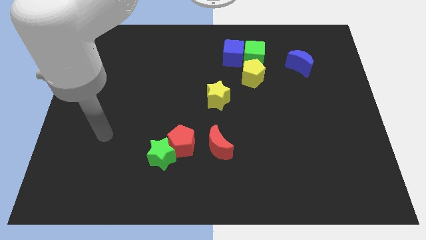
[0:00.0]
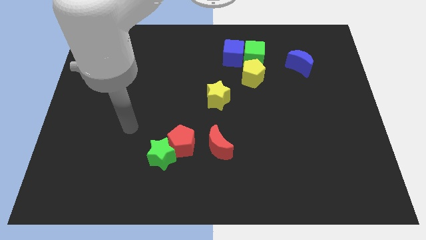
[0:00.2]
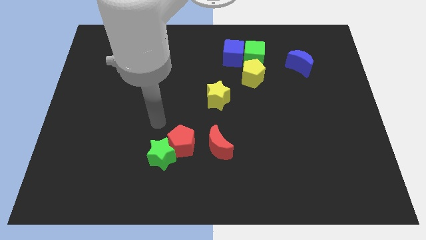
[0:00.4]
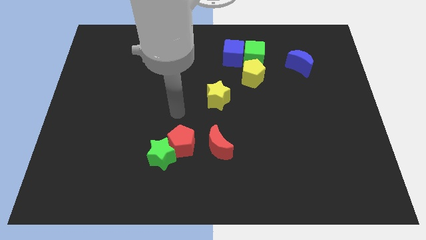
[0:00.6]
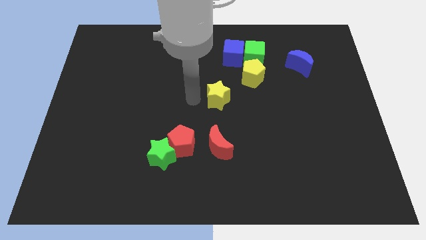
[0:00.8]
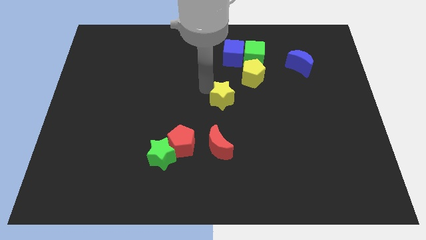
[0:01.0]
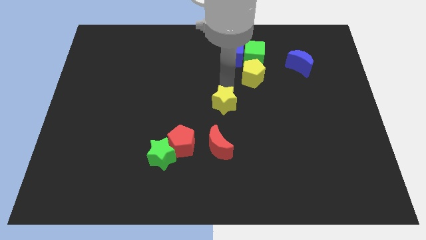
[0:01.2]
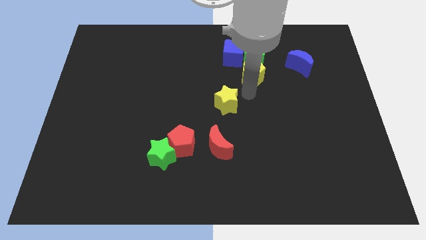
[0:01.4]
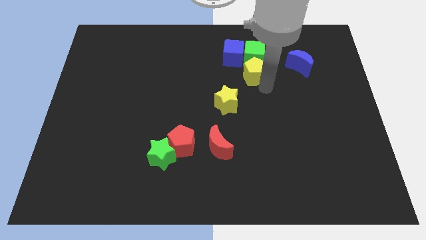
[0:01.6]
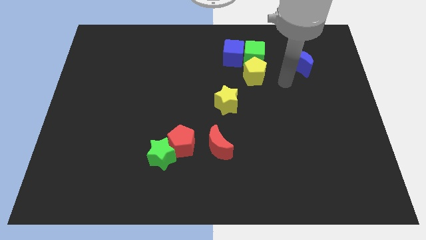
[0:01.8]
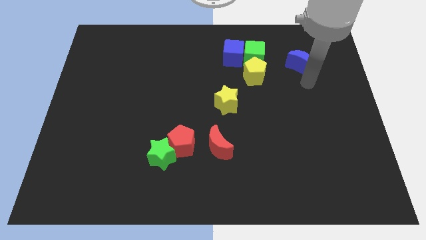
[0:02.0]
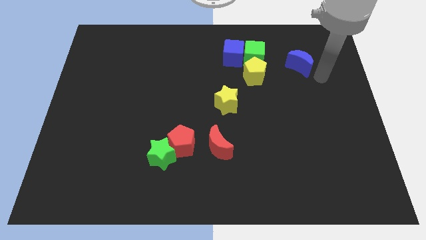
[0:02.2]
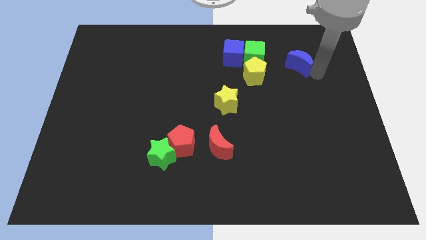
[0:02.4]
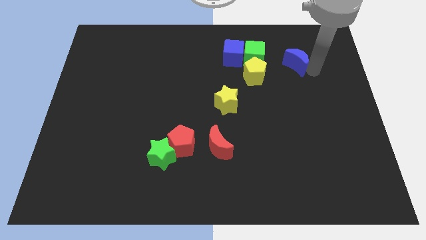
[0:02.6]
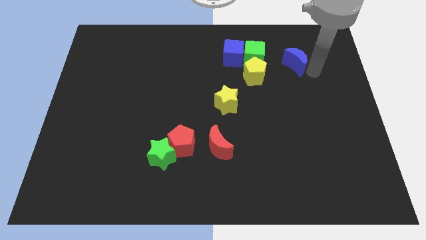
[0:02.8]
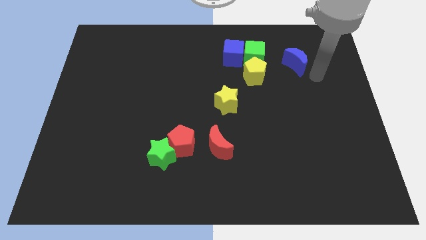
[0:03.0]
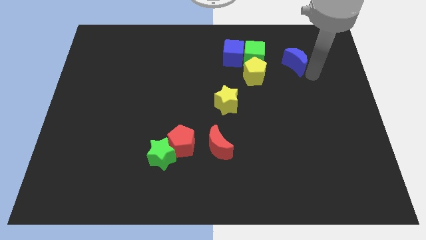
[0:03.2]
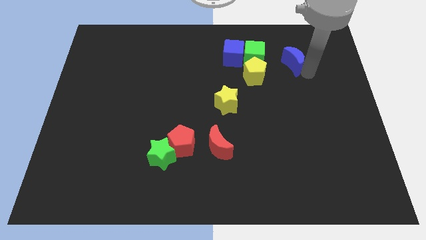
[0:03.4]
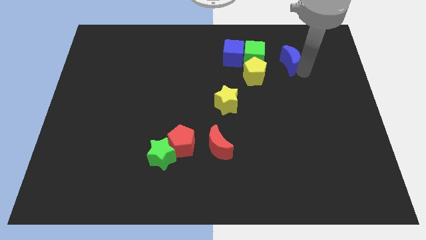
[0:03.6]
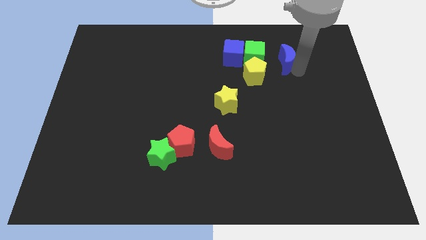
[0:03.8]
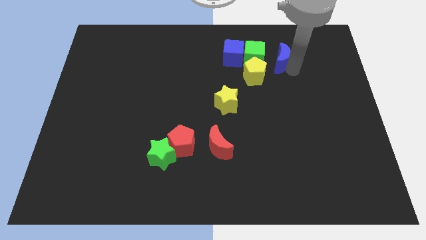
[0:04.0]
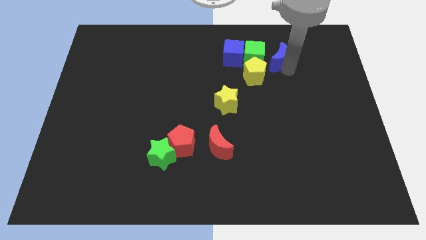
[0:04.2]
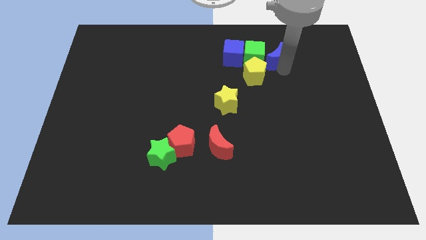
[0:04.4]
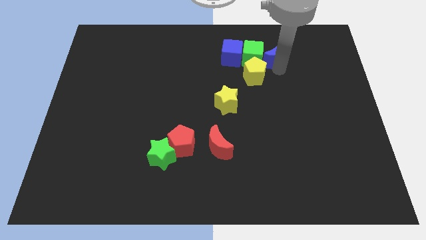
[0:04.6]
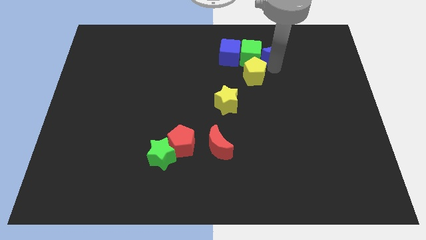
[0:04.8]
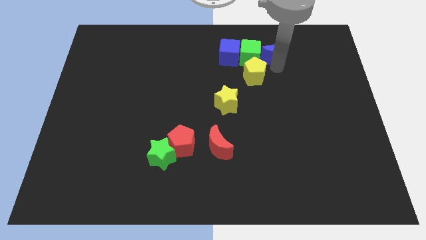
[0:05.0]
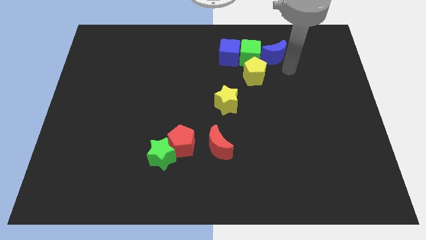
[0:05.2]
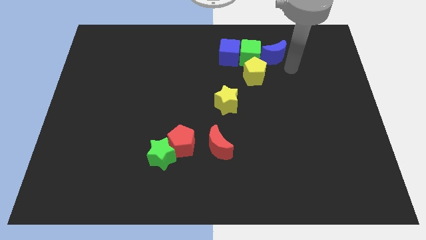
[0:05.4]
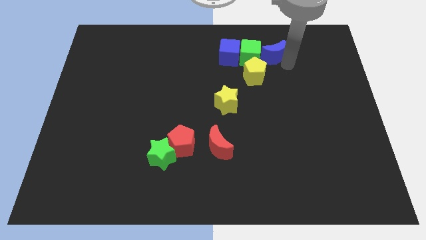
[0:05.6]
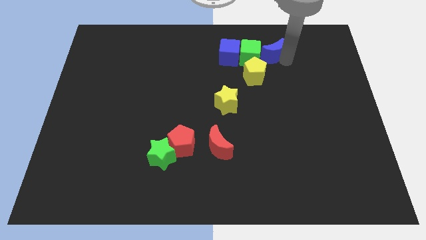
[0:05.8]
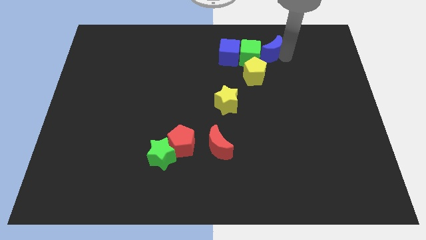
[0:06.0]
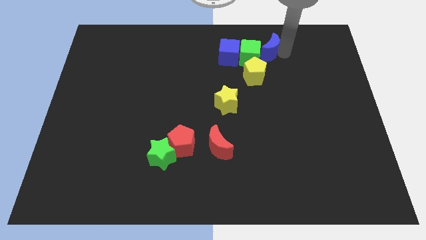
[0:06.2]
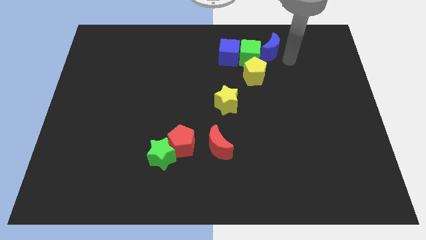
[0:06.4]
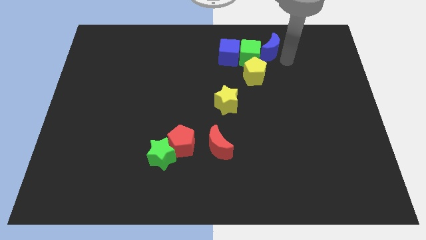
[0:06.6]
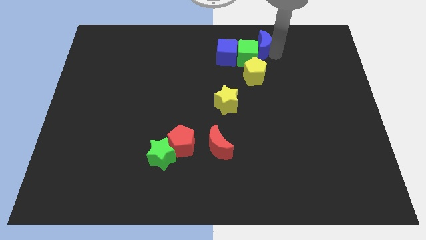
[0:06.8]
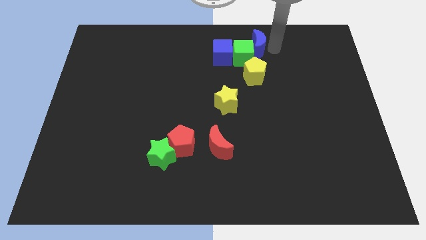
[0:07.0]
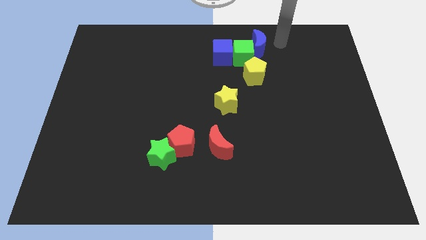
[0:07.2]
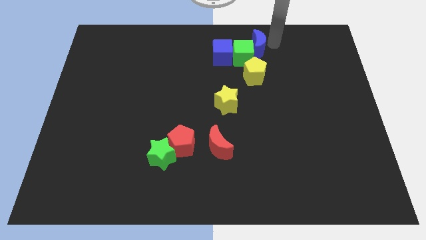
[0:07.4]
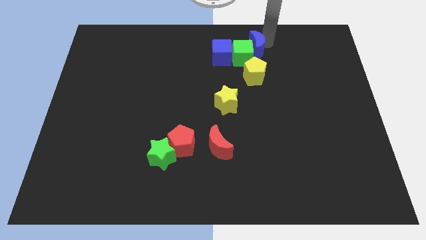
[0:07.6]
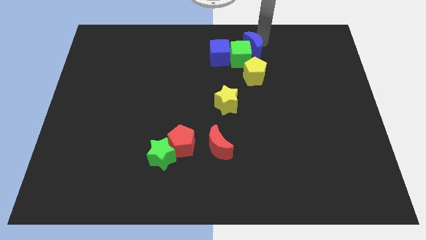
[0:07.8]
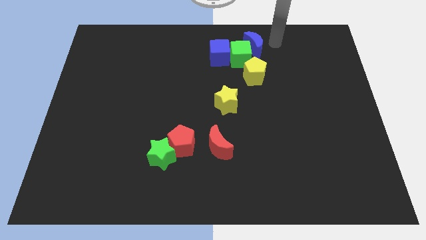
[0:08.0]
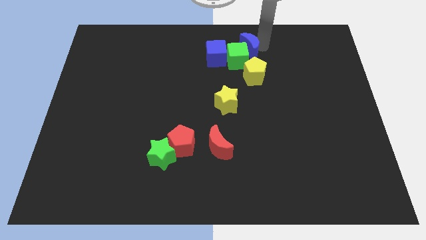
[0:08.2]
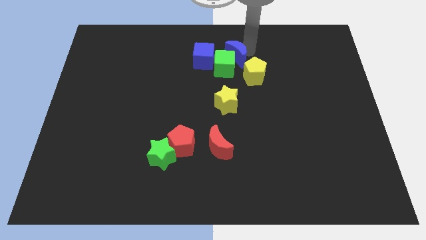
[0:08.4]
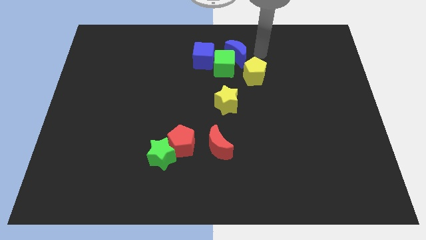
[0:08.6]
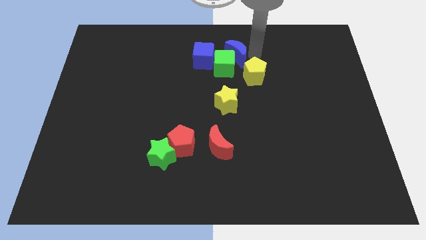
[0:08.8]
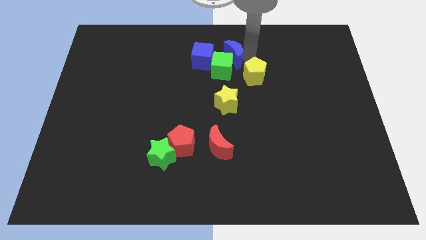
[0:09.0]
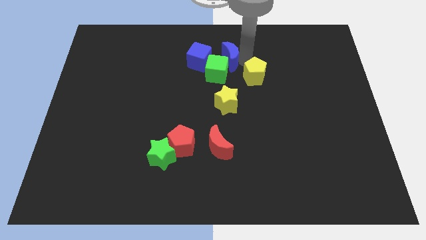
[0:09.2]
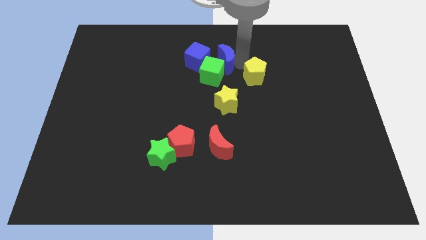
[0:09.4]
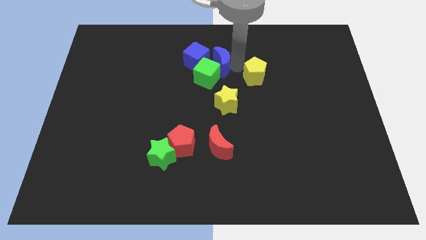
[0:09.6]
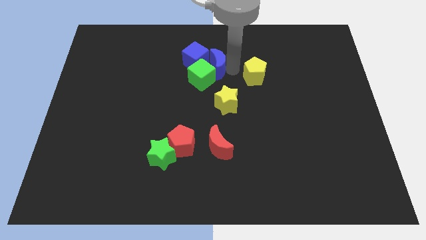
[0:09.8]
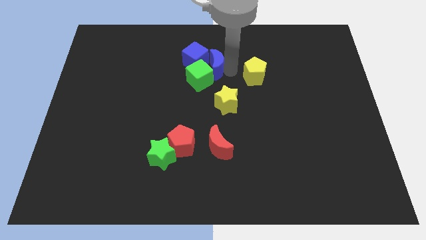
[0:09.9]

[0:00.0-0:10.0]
slide the blue moon to the blue cube

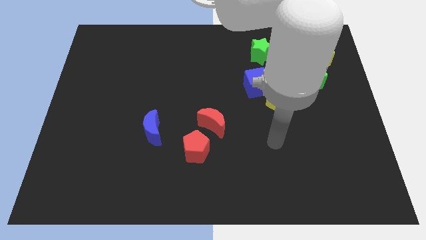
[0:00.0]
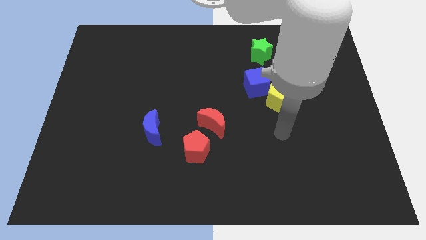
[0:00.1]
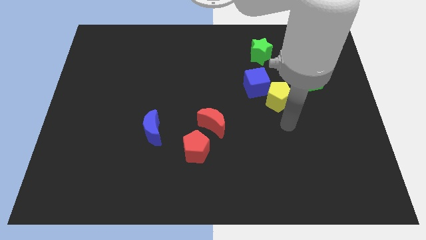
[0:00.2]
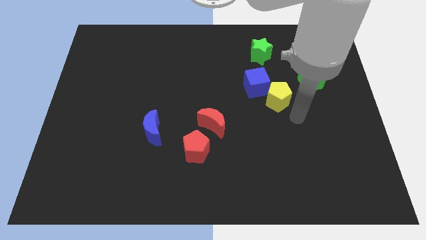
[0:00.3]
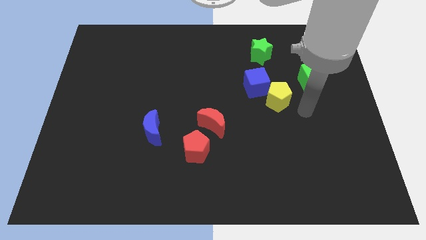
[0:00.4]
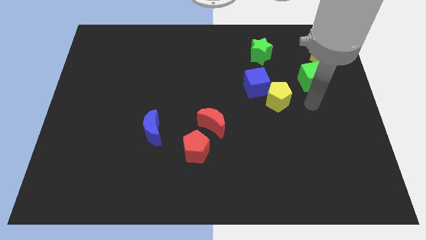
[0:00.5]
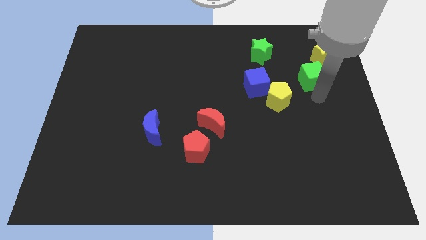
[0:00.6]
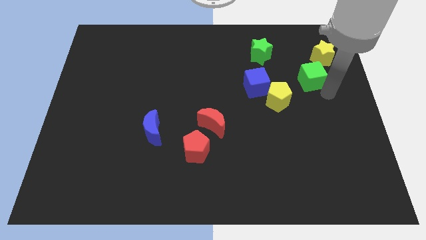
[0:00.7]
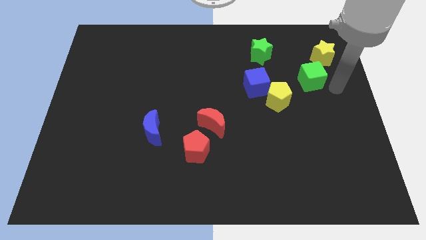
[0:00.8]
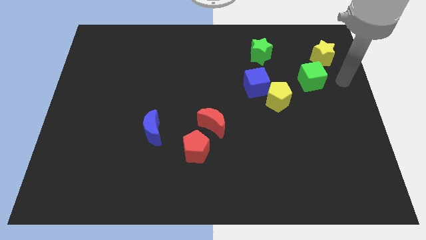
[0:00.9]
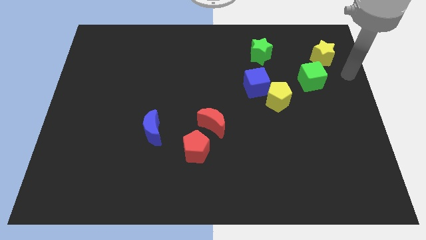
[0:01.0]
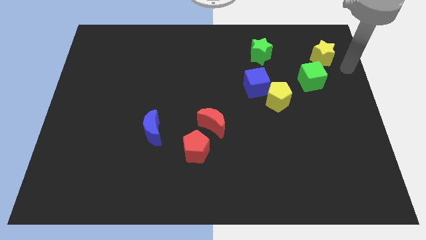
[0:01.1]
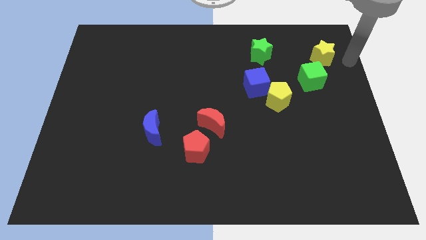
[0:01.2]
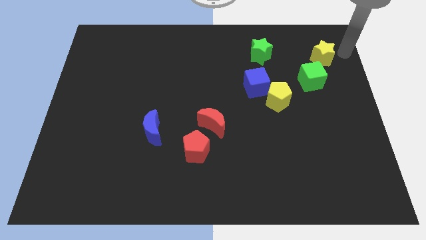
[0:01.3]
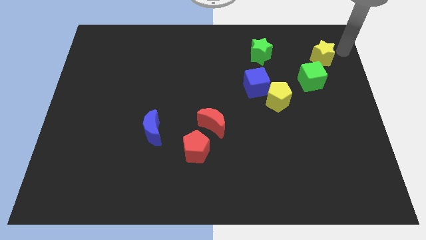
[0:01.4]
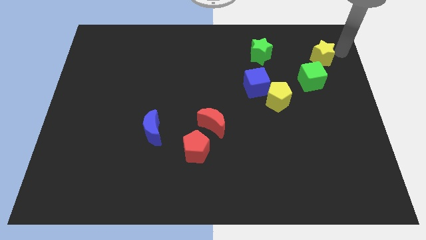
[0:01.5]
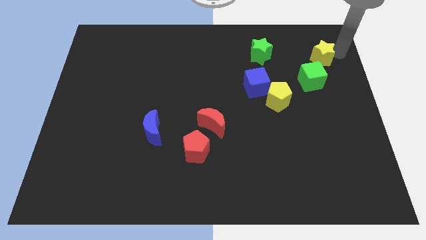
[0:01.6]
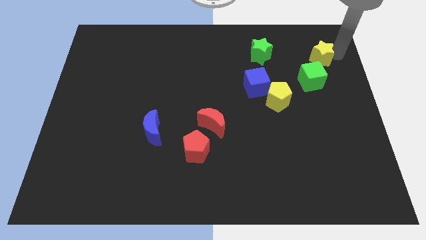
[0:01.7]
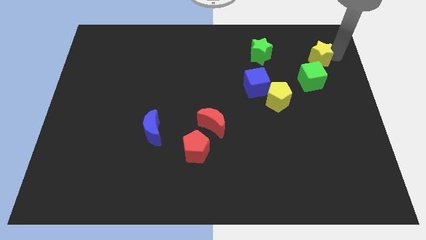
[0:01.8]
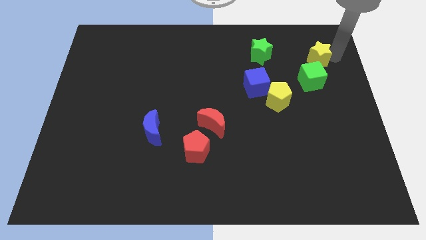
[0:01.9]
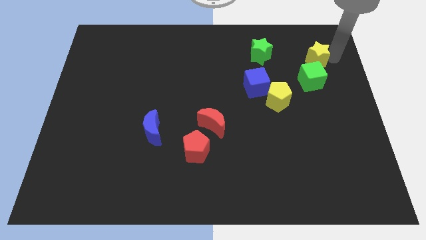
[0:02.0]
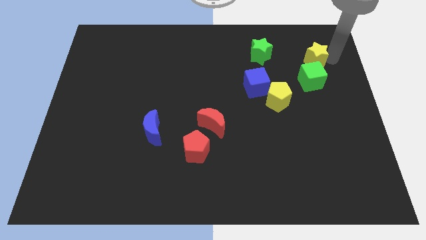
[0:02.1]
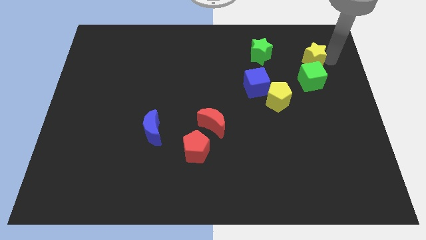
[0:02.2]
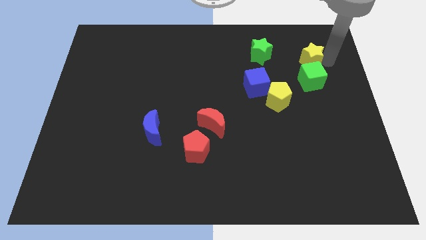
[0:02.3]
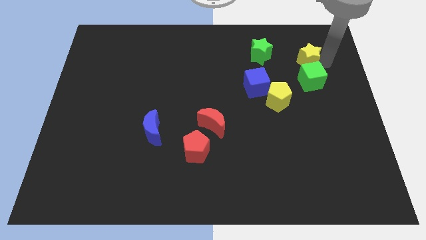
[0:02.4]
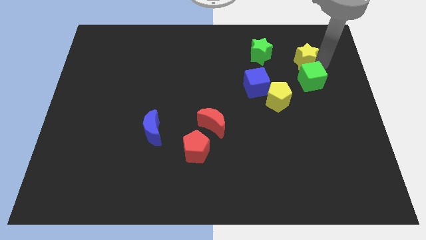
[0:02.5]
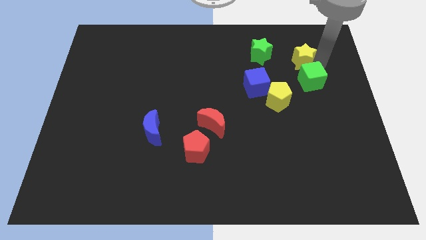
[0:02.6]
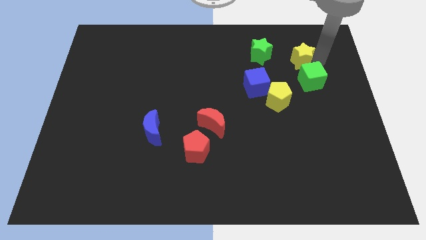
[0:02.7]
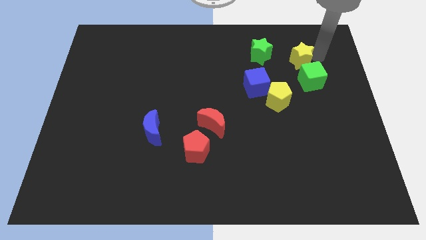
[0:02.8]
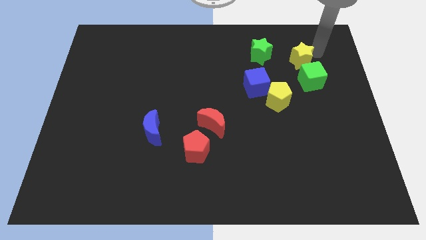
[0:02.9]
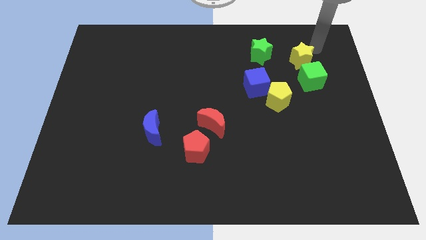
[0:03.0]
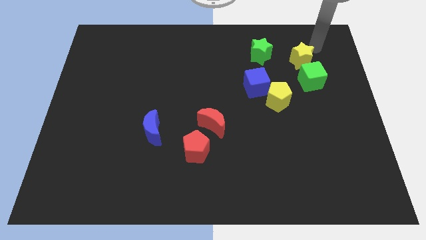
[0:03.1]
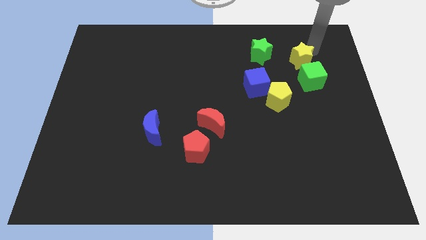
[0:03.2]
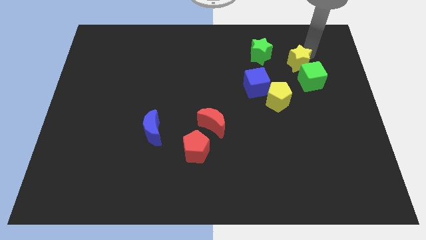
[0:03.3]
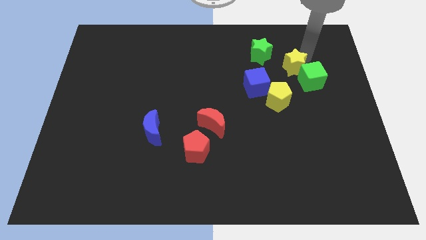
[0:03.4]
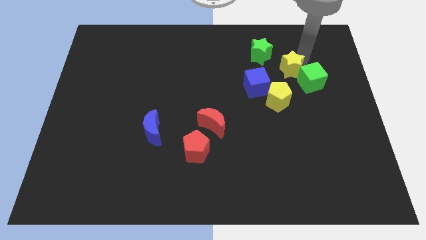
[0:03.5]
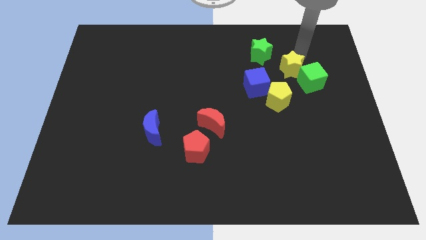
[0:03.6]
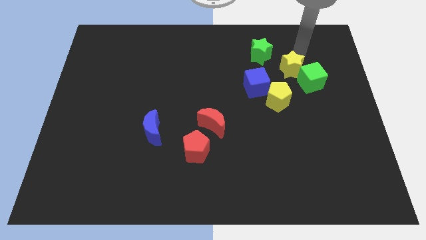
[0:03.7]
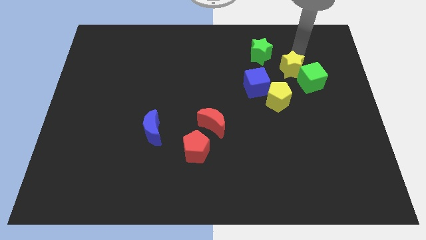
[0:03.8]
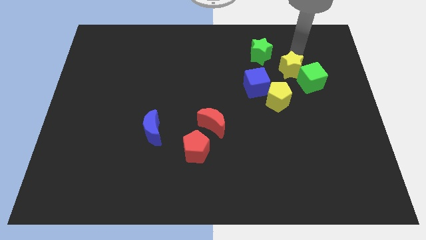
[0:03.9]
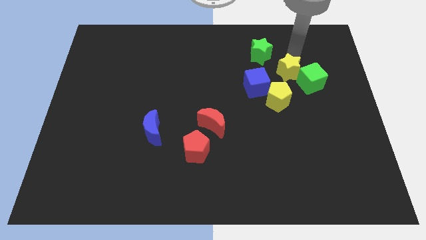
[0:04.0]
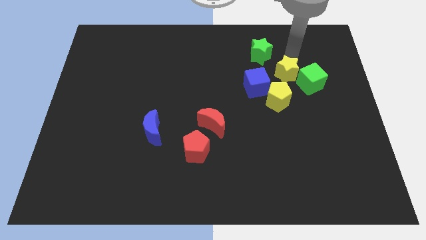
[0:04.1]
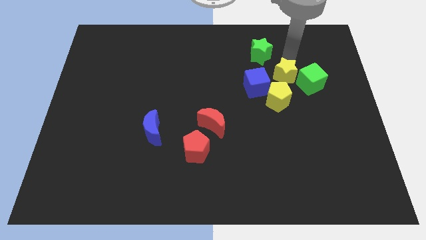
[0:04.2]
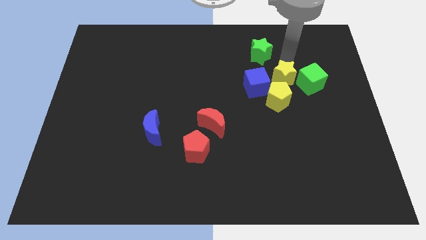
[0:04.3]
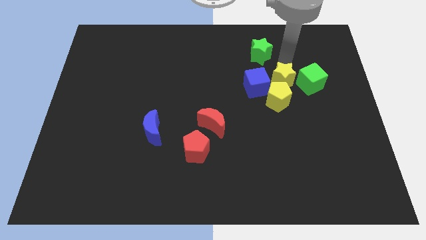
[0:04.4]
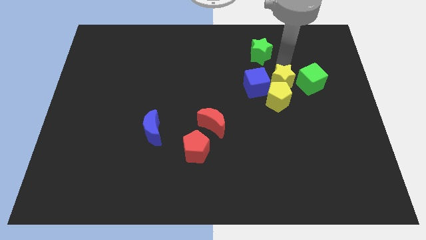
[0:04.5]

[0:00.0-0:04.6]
push the yellow star next to the yellow pentagon
